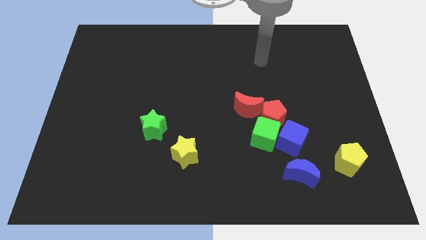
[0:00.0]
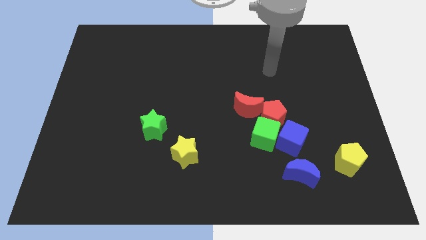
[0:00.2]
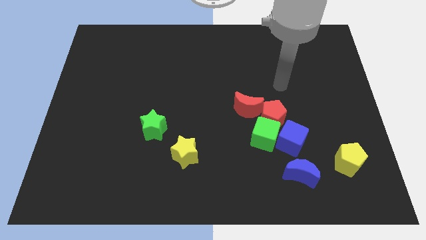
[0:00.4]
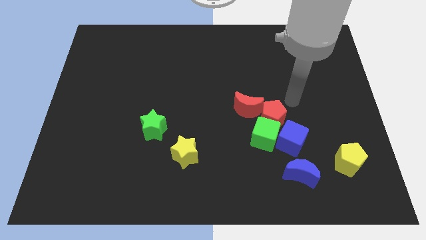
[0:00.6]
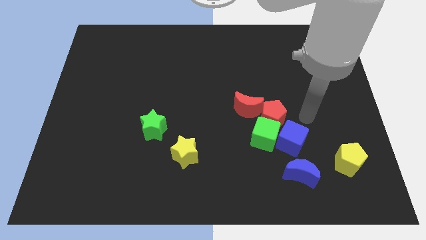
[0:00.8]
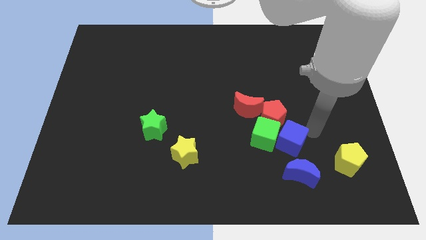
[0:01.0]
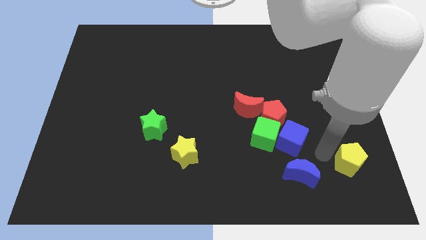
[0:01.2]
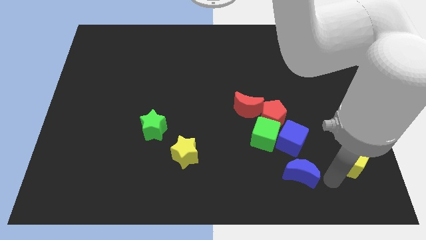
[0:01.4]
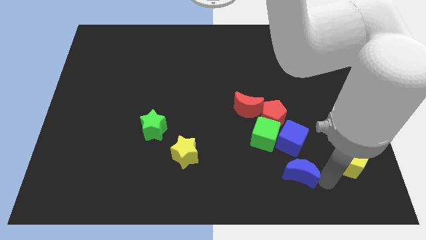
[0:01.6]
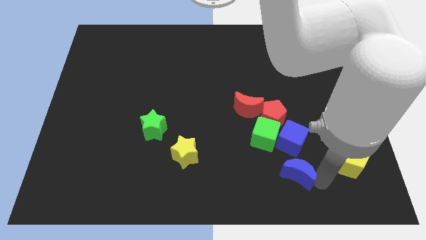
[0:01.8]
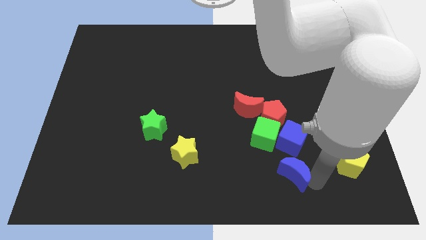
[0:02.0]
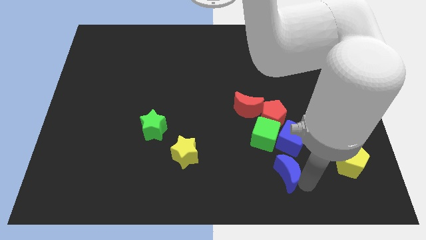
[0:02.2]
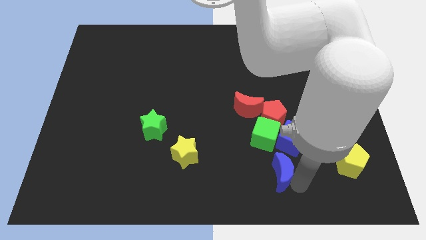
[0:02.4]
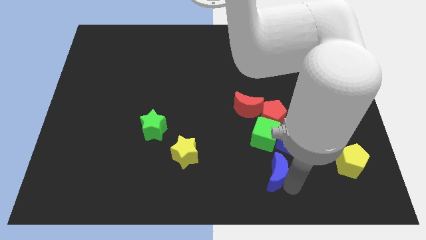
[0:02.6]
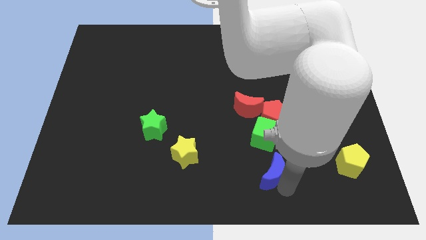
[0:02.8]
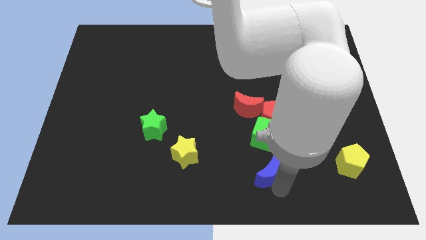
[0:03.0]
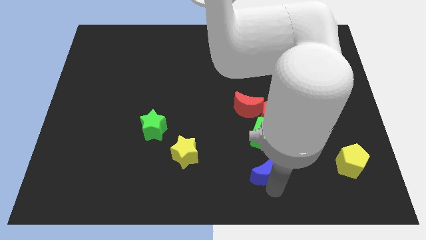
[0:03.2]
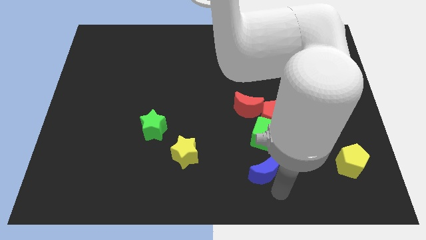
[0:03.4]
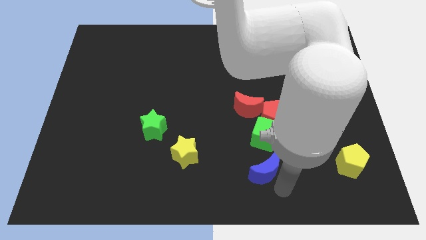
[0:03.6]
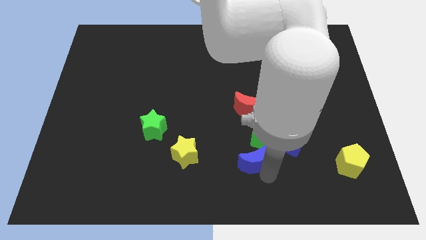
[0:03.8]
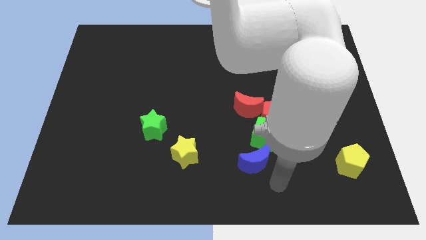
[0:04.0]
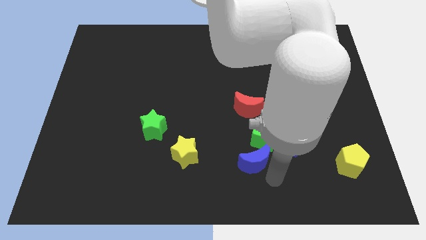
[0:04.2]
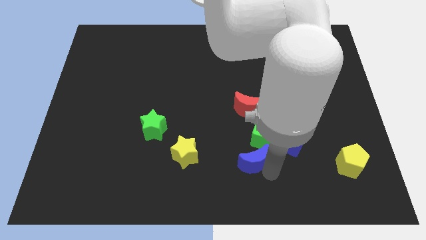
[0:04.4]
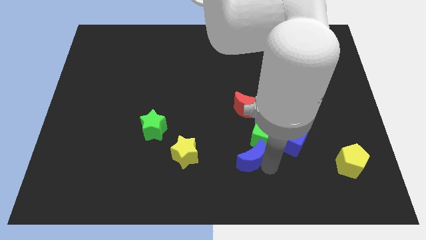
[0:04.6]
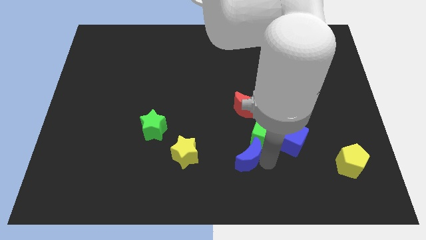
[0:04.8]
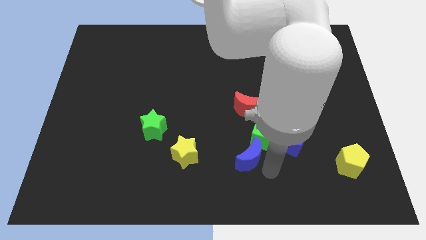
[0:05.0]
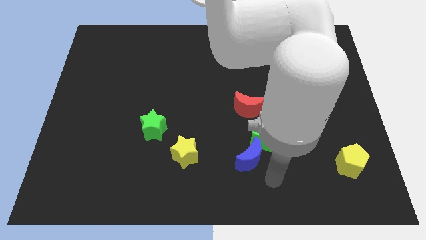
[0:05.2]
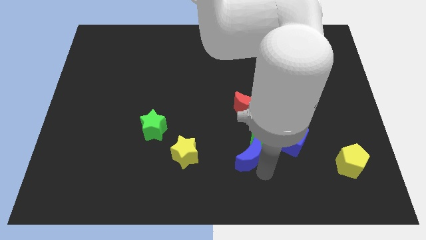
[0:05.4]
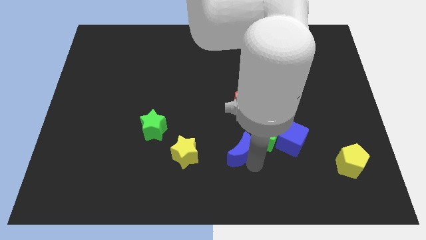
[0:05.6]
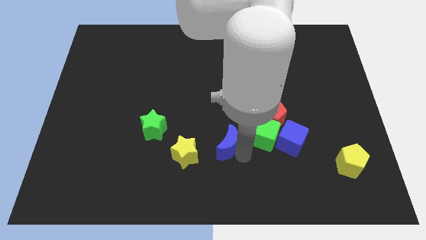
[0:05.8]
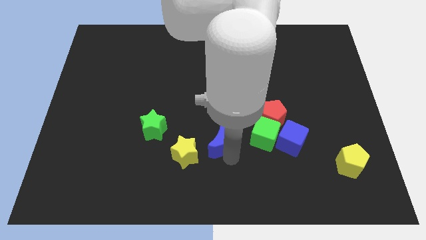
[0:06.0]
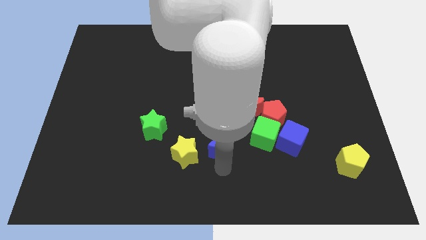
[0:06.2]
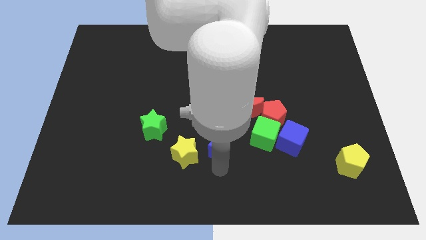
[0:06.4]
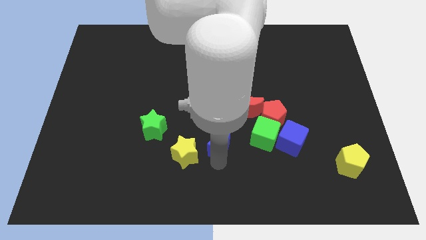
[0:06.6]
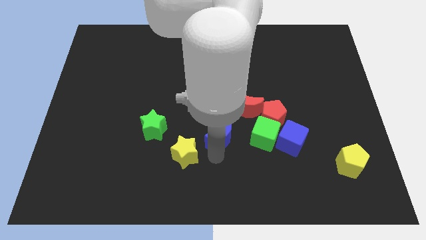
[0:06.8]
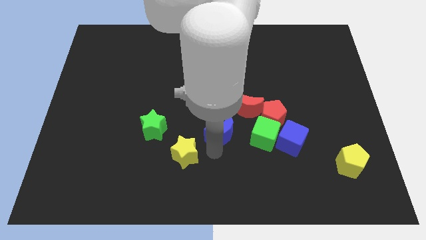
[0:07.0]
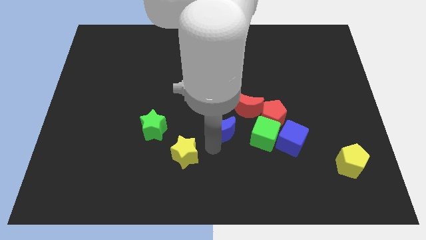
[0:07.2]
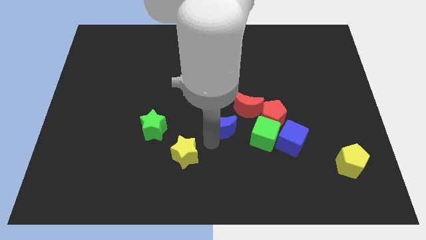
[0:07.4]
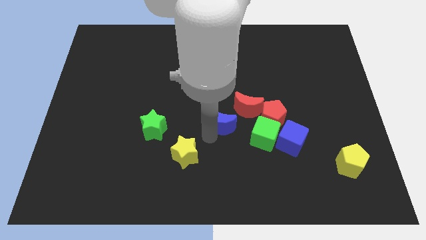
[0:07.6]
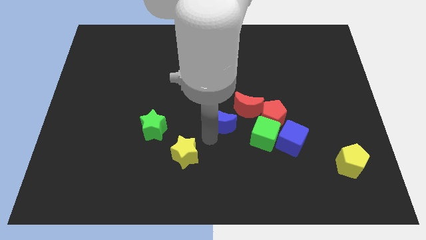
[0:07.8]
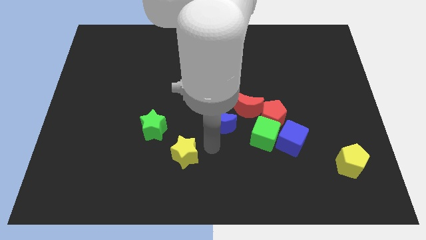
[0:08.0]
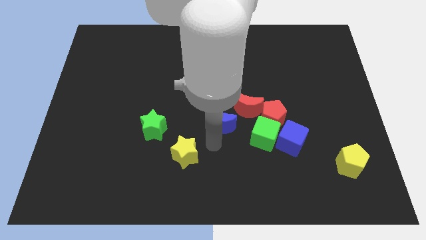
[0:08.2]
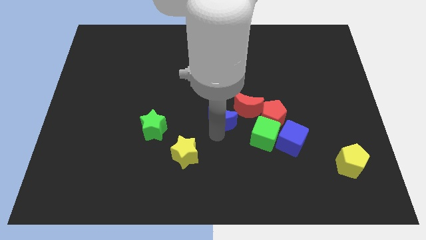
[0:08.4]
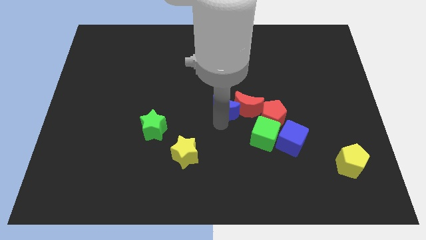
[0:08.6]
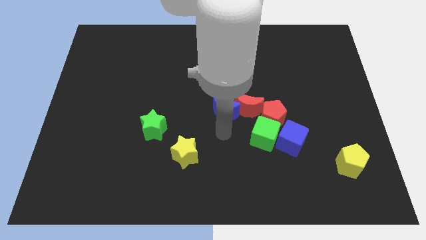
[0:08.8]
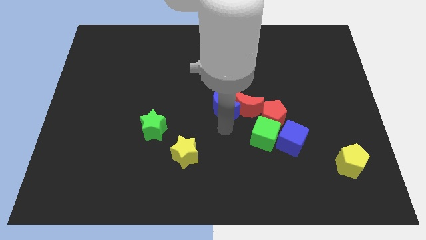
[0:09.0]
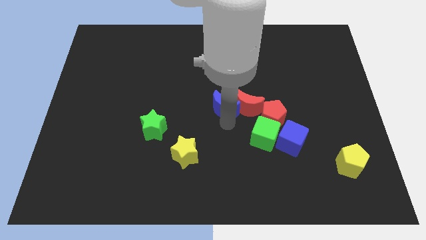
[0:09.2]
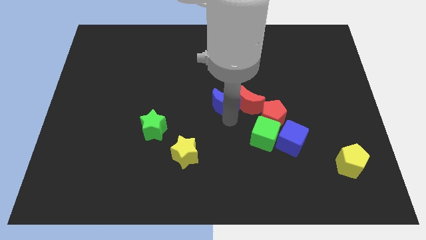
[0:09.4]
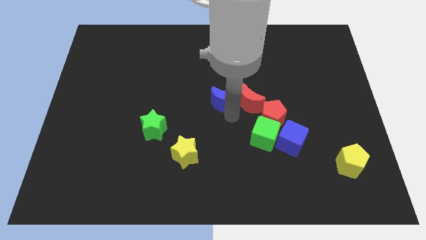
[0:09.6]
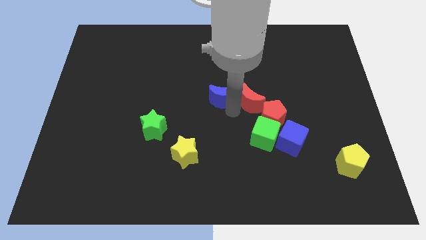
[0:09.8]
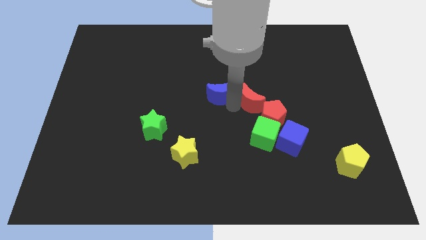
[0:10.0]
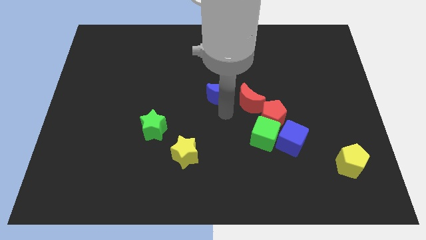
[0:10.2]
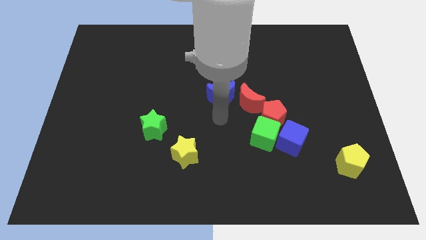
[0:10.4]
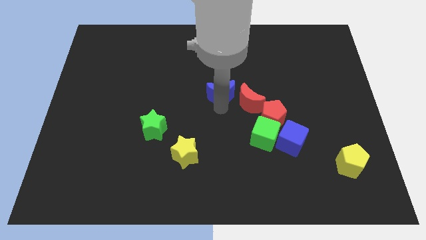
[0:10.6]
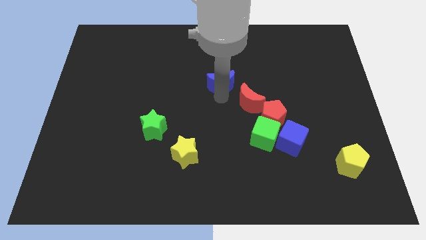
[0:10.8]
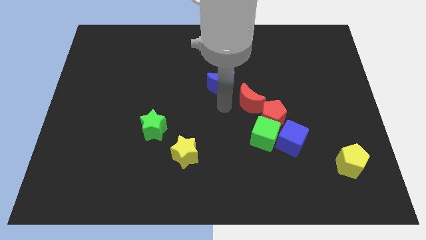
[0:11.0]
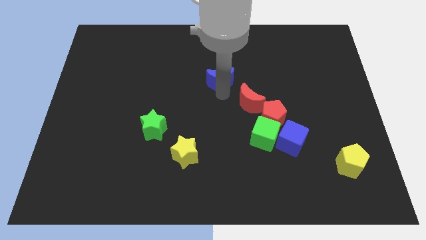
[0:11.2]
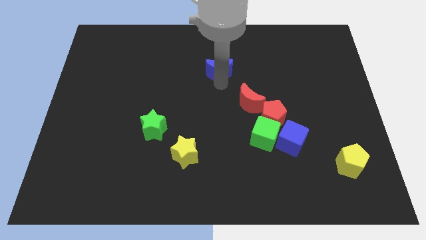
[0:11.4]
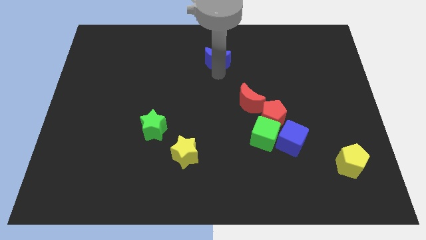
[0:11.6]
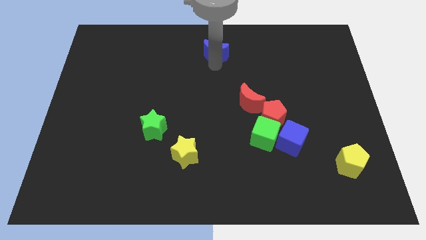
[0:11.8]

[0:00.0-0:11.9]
slide the blue moon to the top side

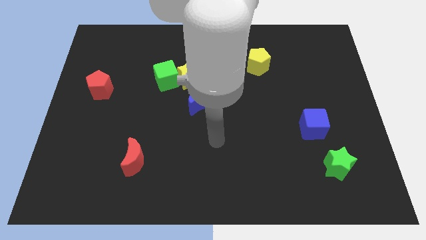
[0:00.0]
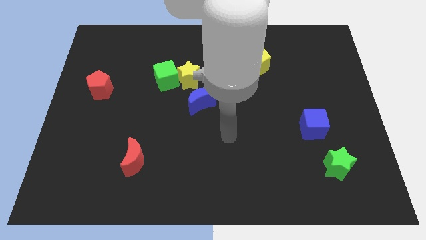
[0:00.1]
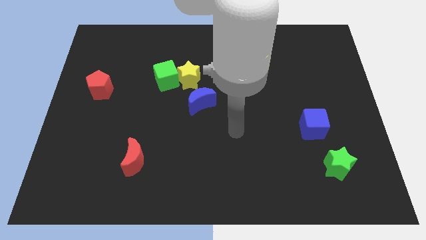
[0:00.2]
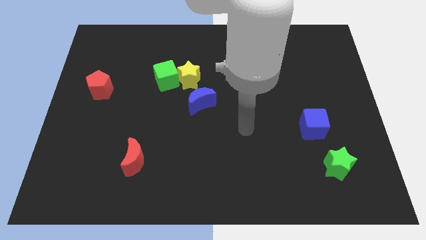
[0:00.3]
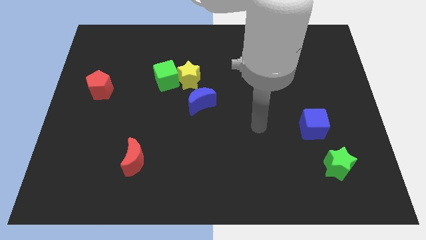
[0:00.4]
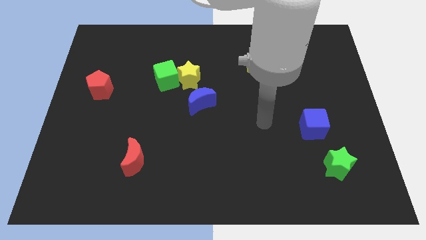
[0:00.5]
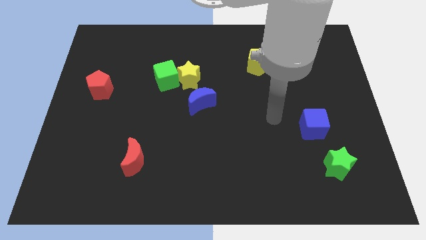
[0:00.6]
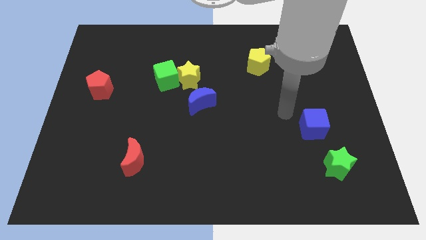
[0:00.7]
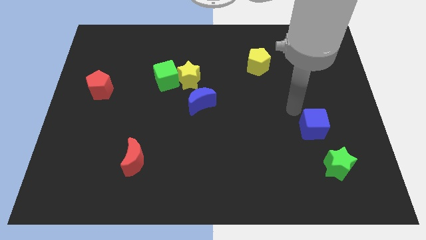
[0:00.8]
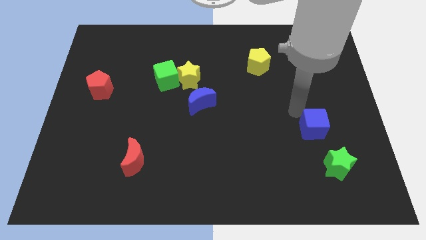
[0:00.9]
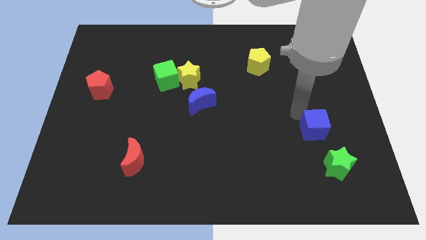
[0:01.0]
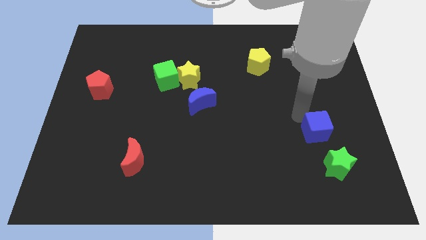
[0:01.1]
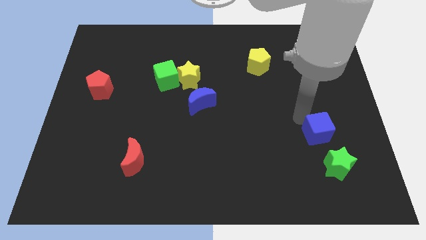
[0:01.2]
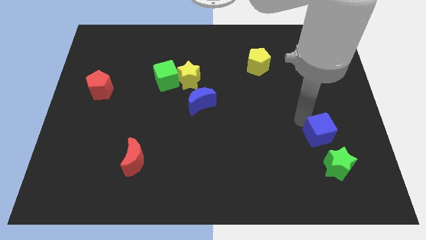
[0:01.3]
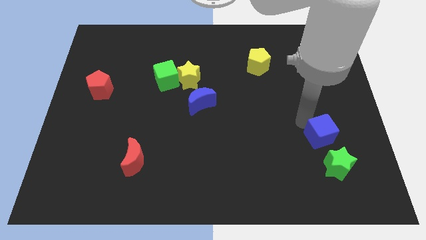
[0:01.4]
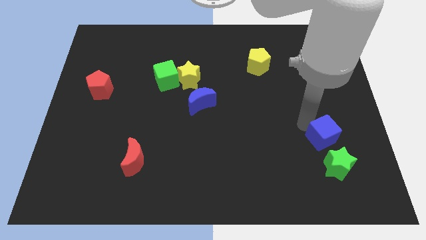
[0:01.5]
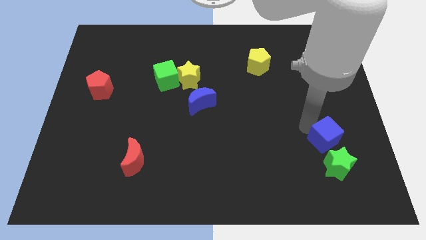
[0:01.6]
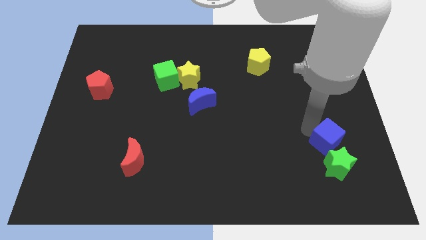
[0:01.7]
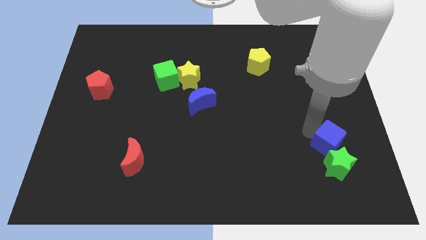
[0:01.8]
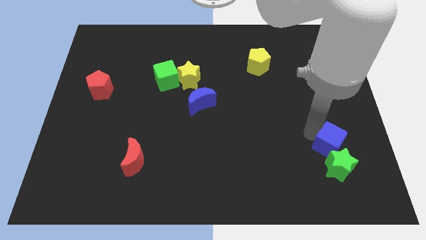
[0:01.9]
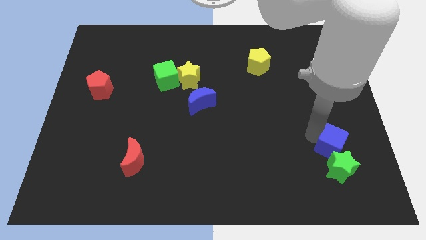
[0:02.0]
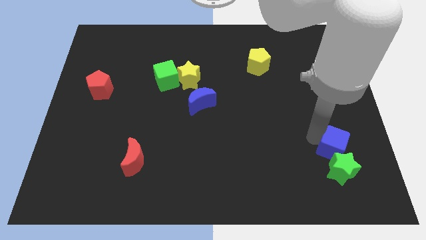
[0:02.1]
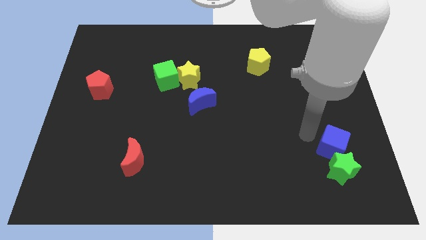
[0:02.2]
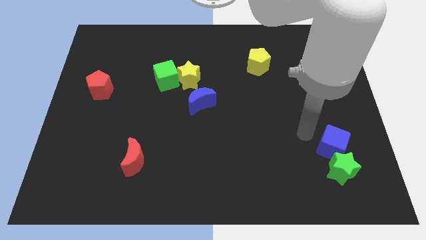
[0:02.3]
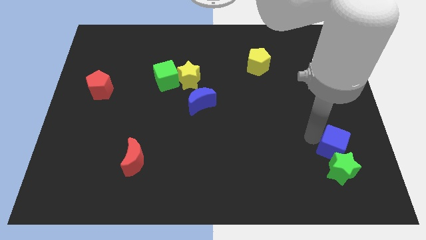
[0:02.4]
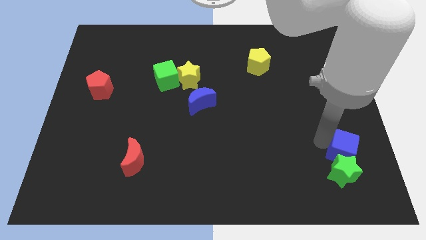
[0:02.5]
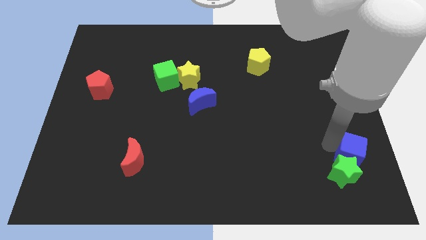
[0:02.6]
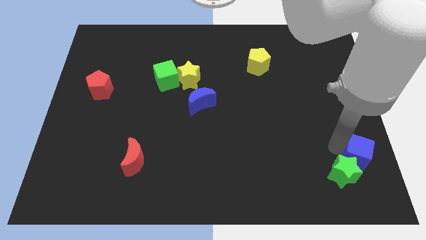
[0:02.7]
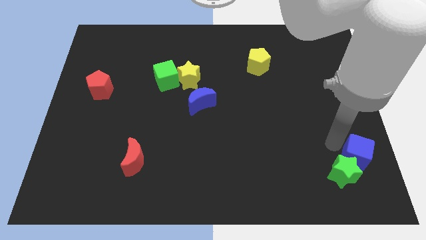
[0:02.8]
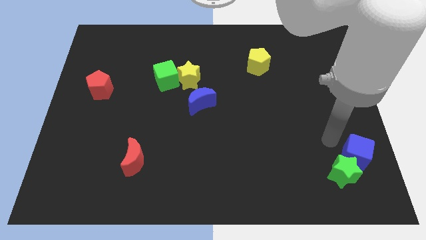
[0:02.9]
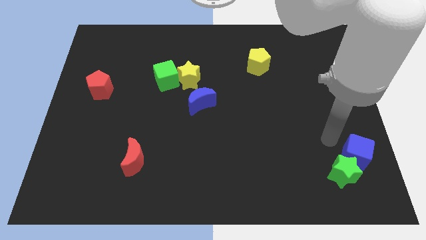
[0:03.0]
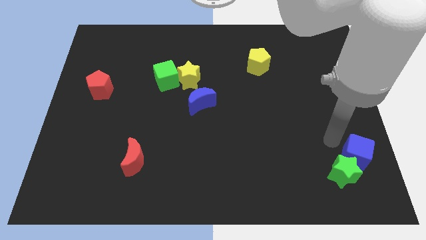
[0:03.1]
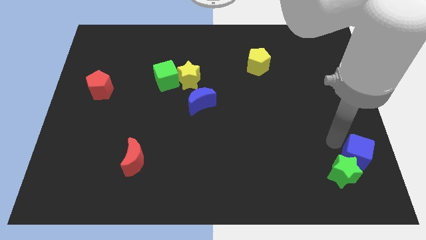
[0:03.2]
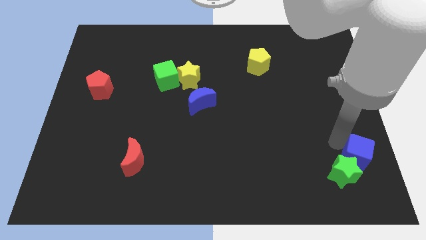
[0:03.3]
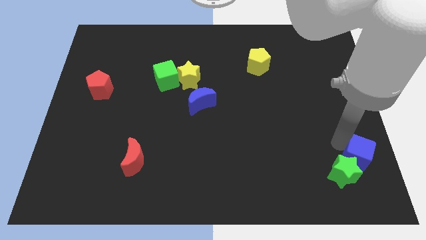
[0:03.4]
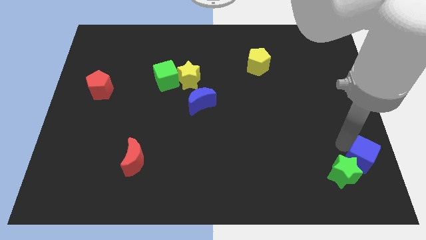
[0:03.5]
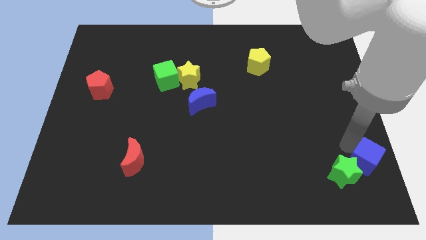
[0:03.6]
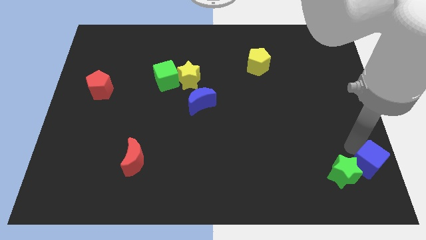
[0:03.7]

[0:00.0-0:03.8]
move the blue cube to the bottom right corner
